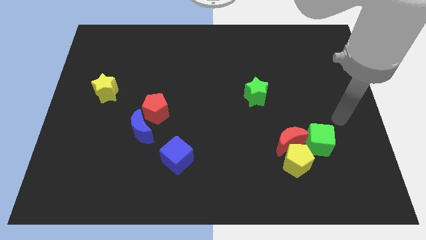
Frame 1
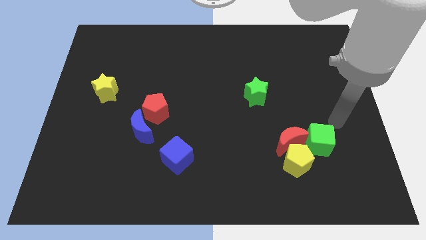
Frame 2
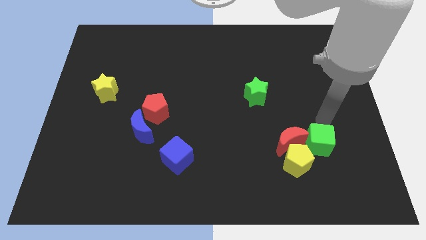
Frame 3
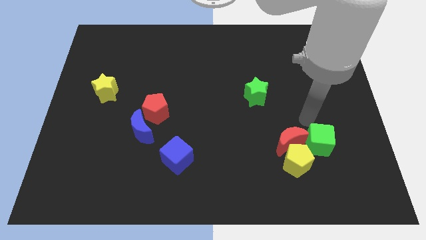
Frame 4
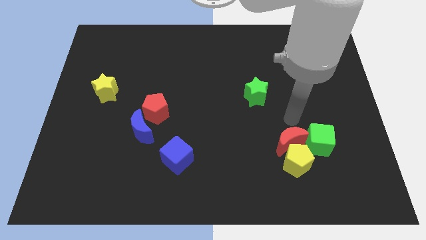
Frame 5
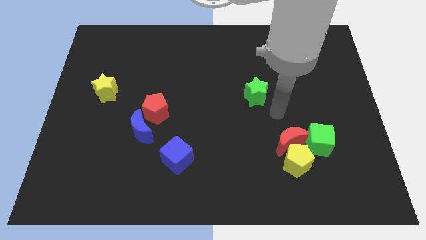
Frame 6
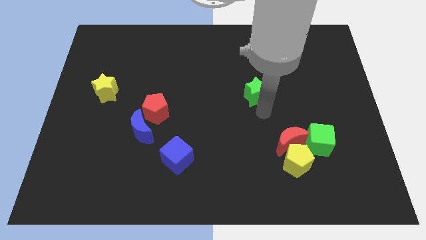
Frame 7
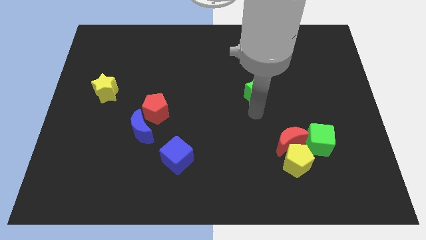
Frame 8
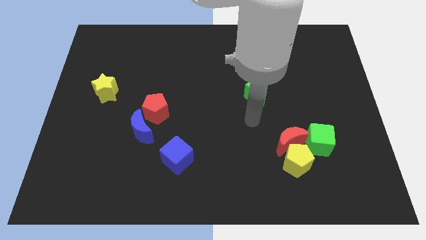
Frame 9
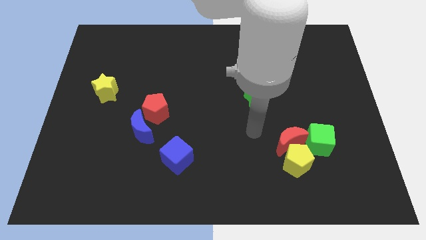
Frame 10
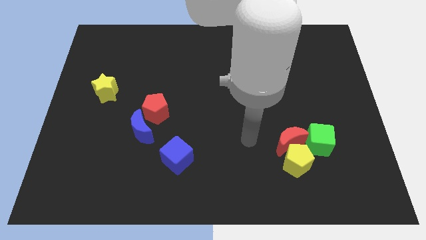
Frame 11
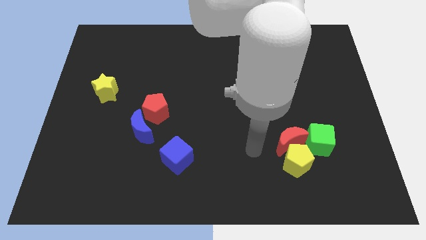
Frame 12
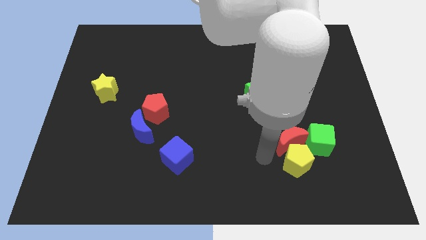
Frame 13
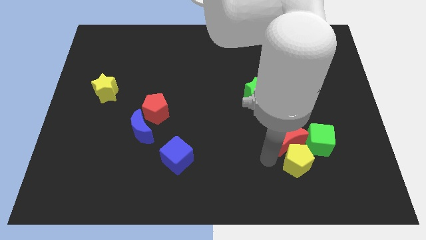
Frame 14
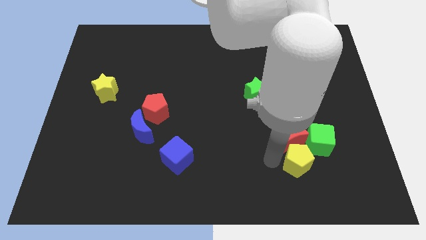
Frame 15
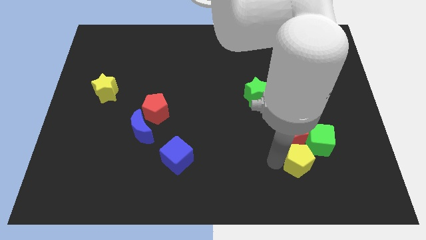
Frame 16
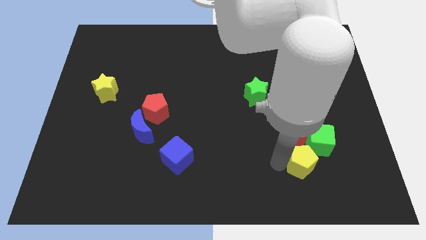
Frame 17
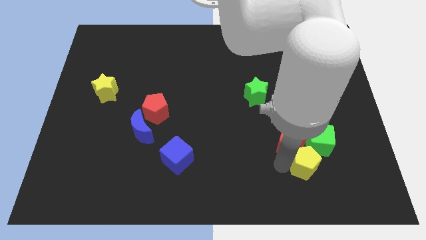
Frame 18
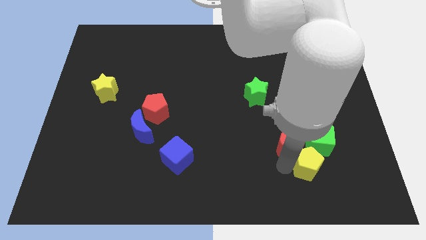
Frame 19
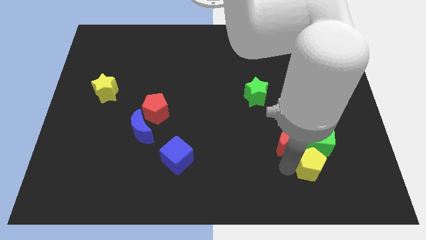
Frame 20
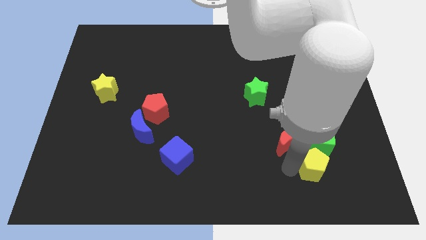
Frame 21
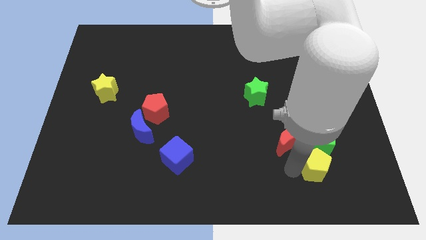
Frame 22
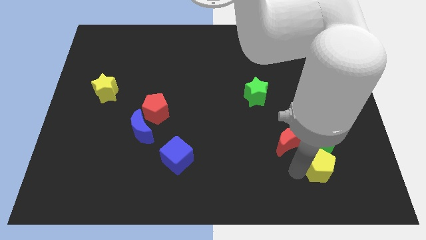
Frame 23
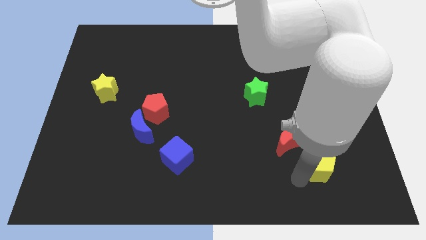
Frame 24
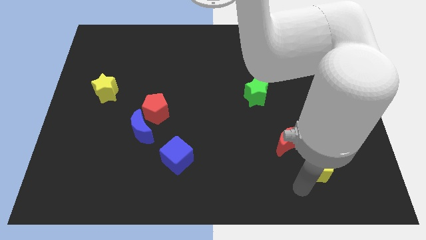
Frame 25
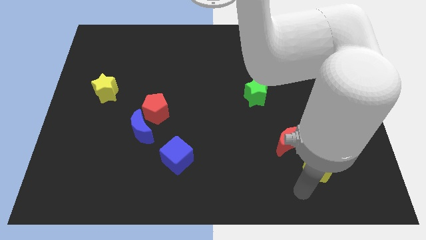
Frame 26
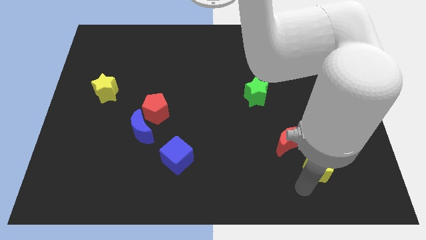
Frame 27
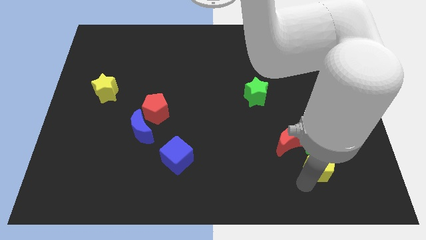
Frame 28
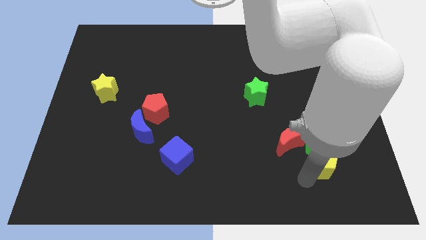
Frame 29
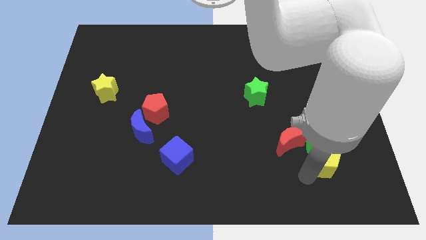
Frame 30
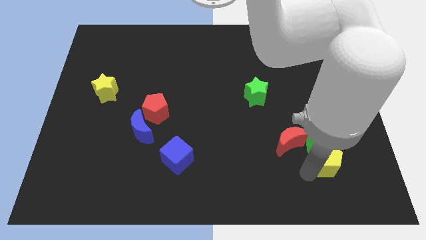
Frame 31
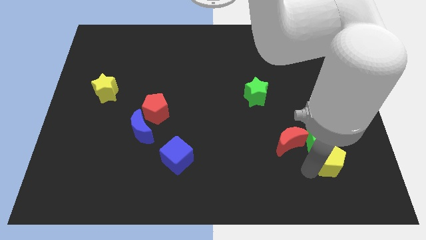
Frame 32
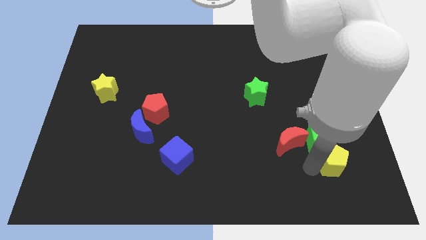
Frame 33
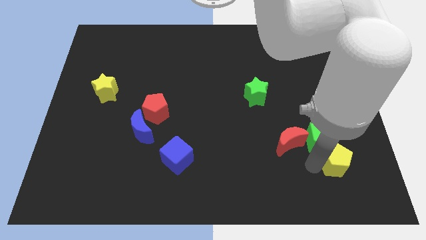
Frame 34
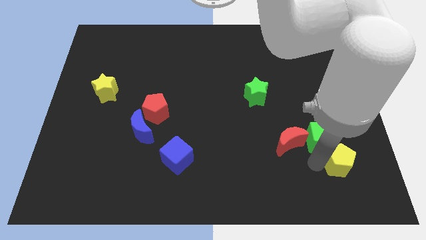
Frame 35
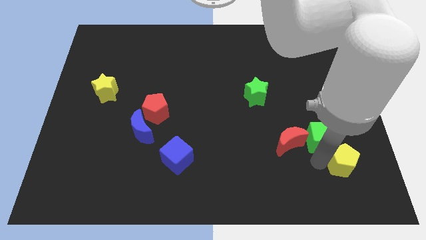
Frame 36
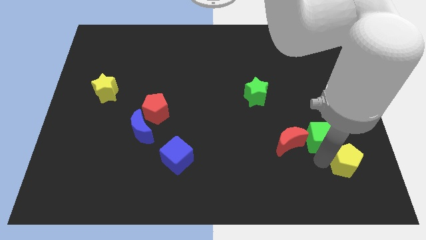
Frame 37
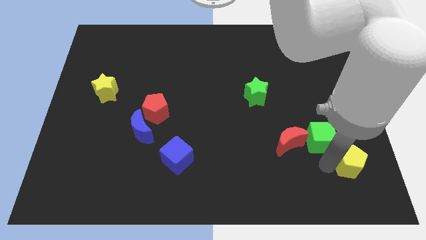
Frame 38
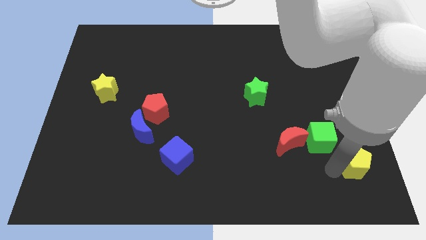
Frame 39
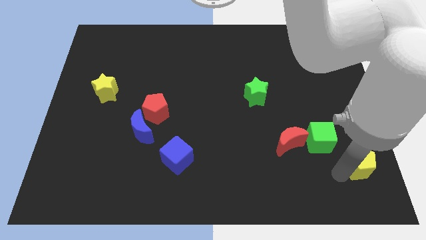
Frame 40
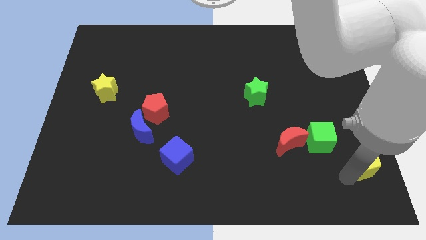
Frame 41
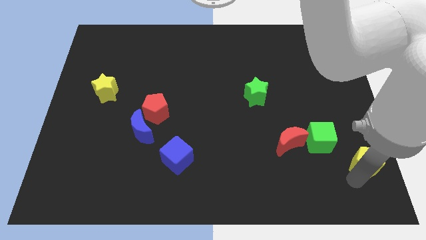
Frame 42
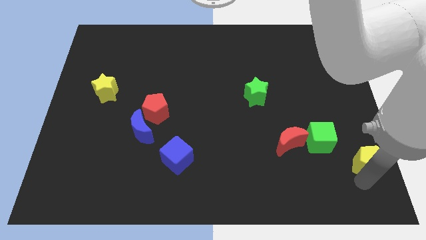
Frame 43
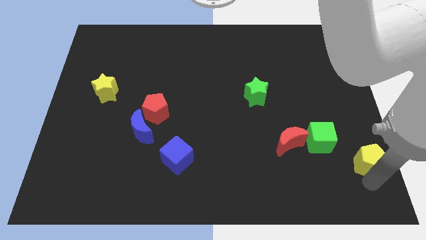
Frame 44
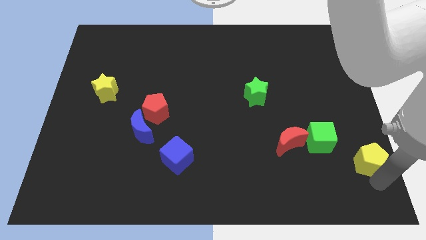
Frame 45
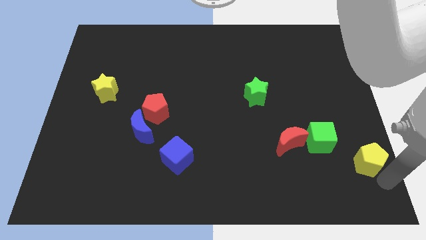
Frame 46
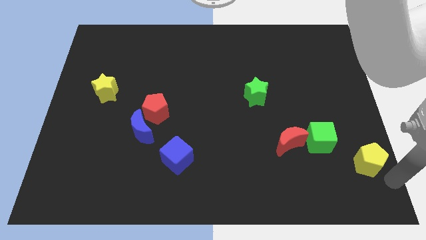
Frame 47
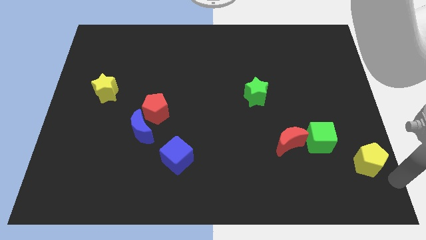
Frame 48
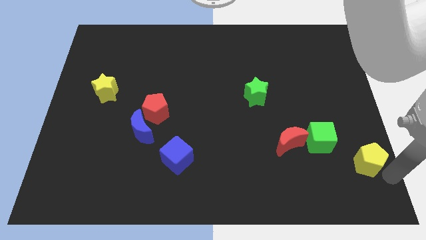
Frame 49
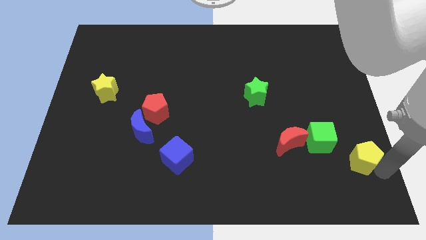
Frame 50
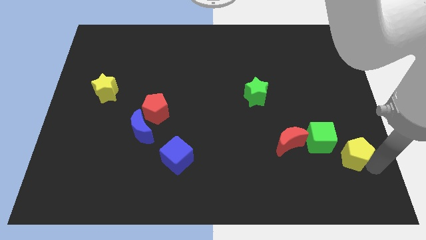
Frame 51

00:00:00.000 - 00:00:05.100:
push the yellow pentagon to the right side of the red moon

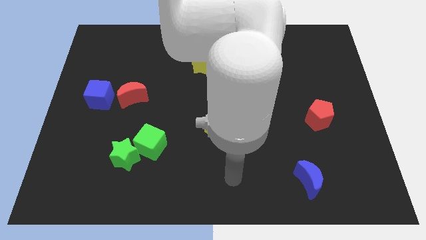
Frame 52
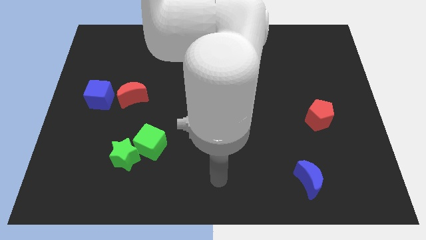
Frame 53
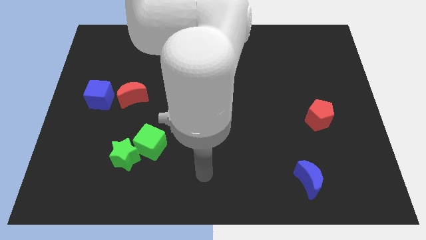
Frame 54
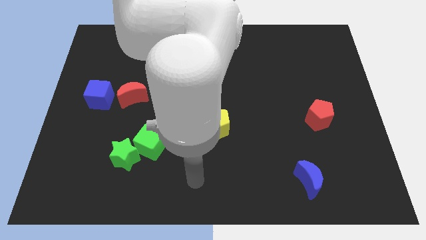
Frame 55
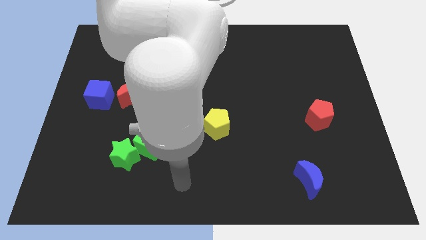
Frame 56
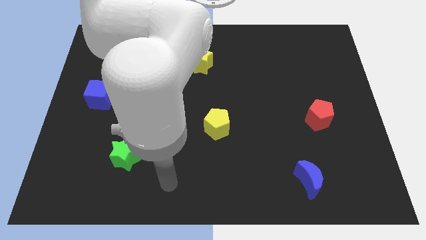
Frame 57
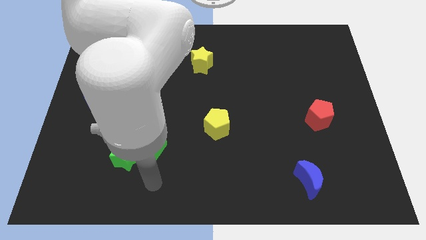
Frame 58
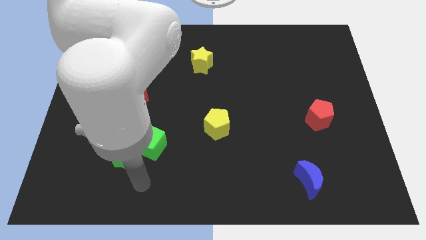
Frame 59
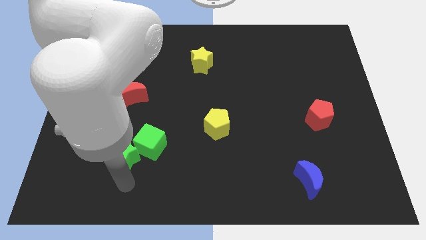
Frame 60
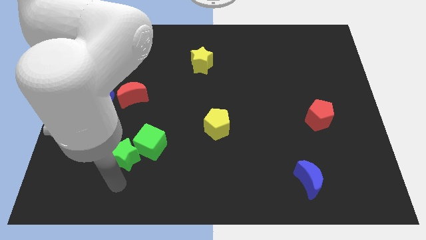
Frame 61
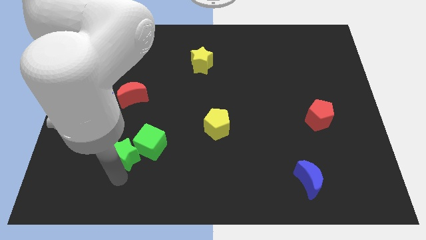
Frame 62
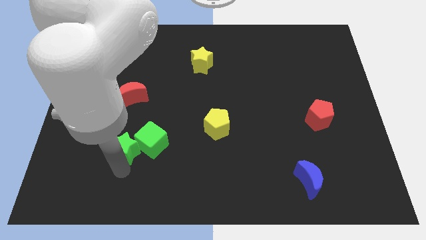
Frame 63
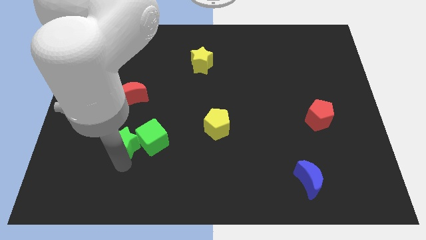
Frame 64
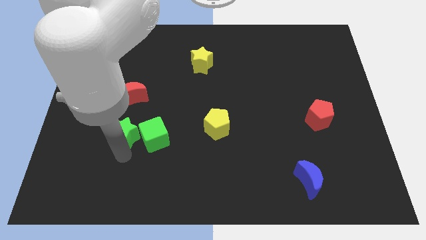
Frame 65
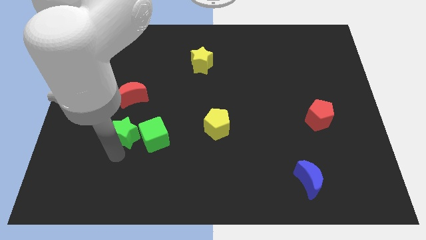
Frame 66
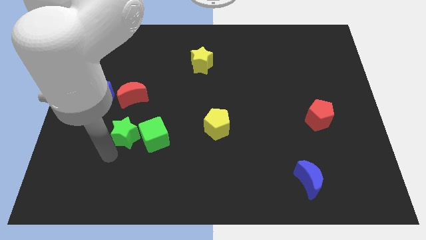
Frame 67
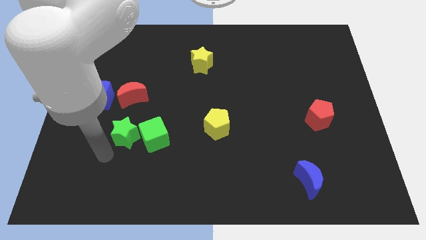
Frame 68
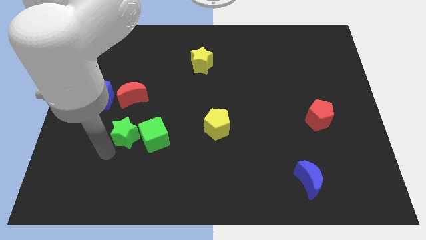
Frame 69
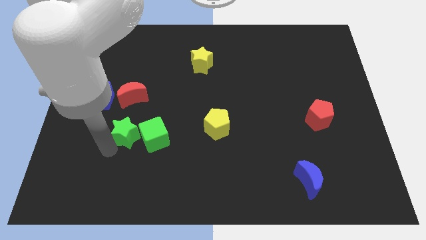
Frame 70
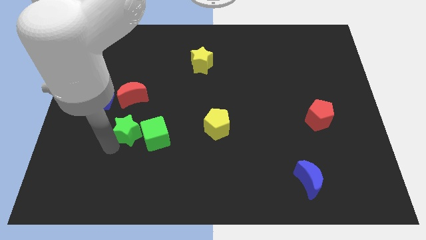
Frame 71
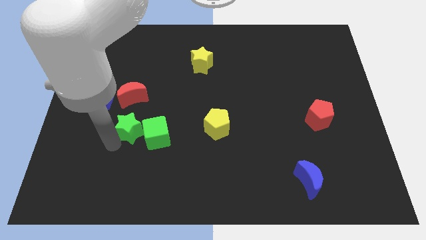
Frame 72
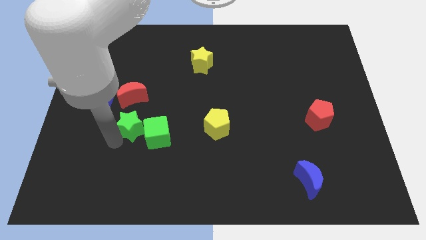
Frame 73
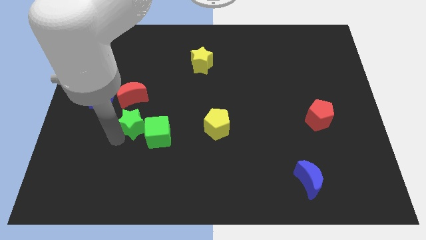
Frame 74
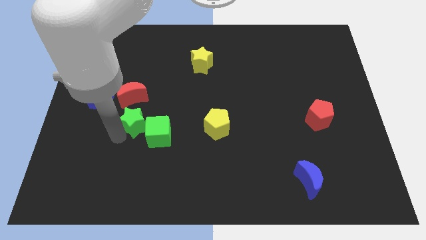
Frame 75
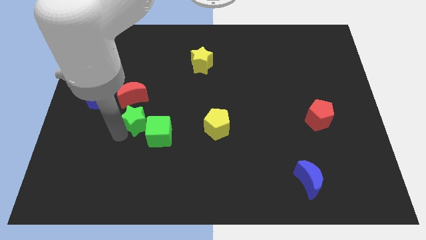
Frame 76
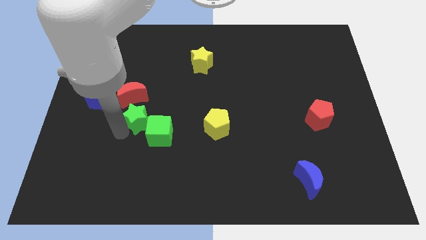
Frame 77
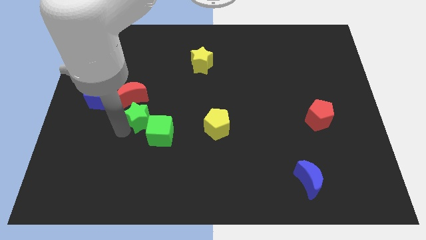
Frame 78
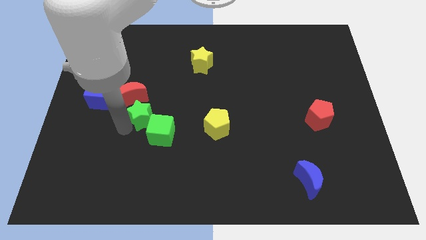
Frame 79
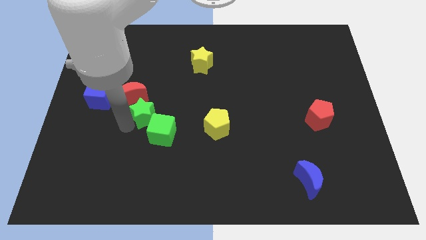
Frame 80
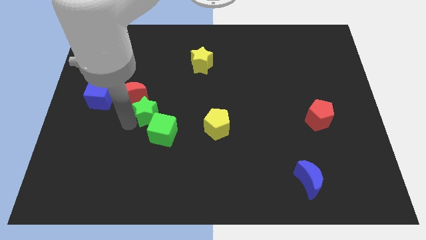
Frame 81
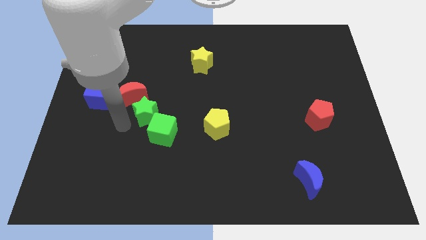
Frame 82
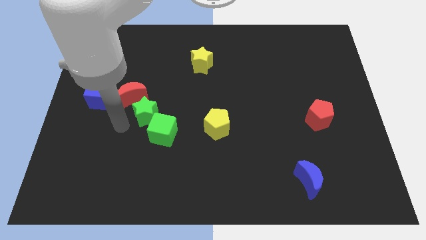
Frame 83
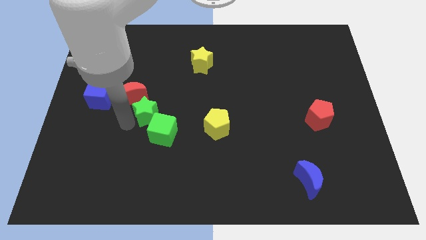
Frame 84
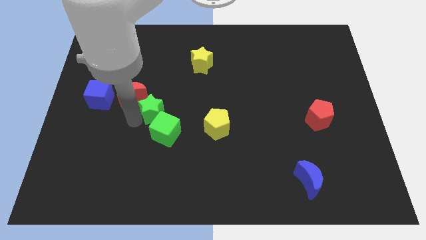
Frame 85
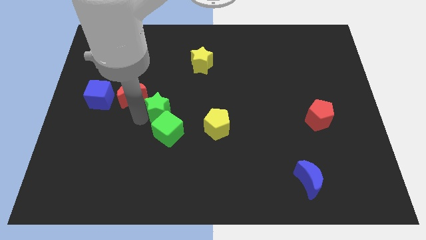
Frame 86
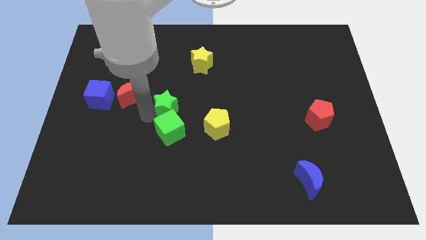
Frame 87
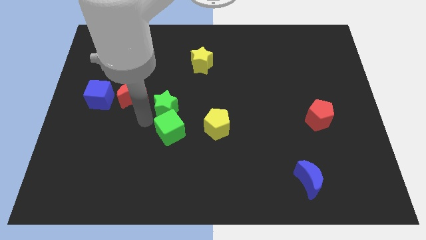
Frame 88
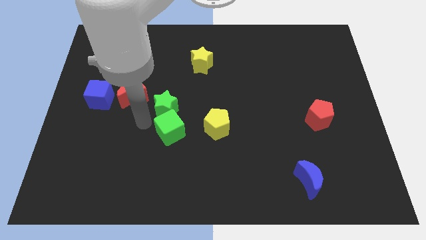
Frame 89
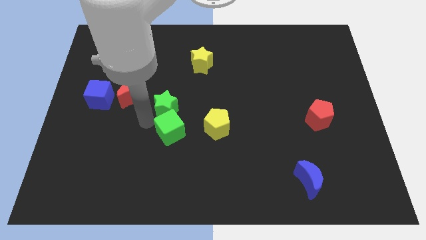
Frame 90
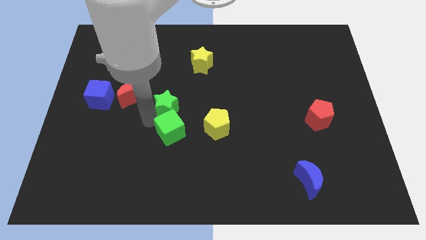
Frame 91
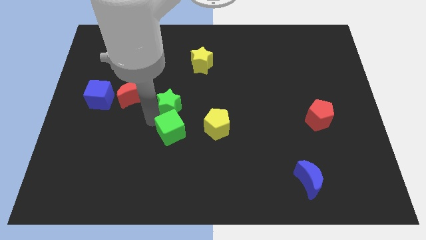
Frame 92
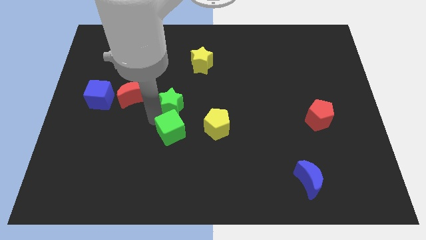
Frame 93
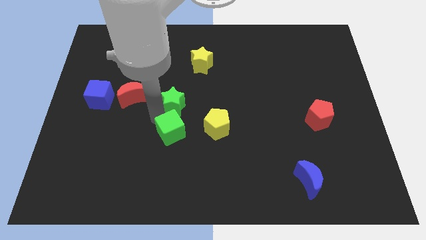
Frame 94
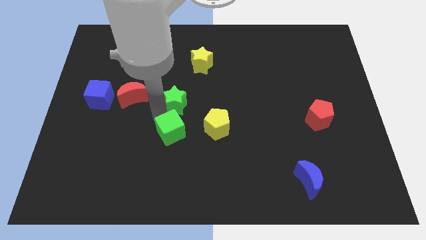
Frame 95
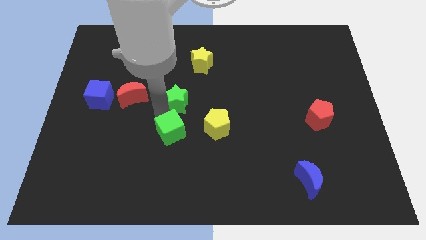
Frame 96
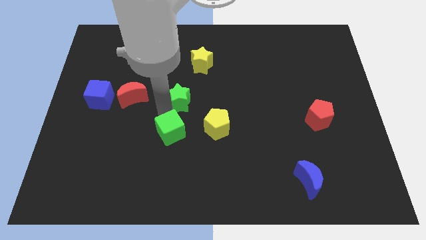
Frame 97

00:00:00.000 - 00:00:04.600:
move the green star below the yellow star
